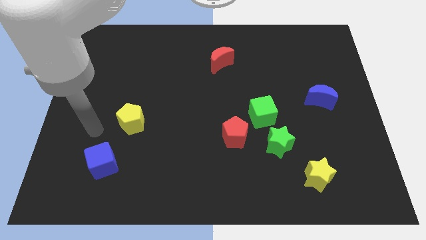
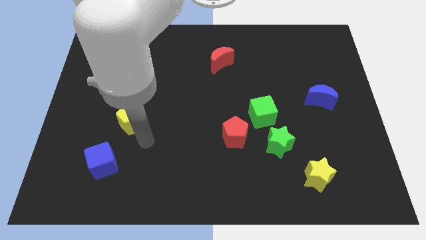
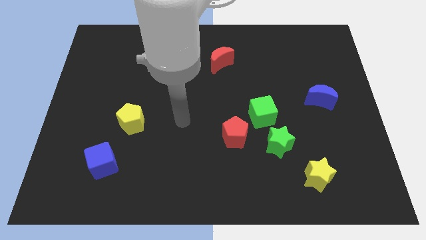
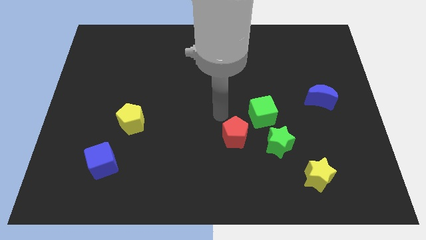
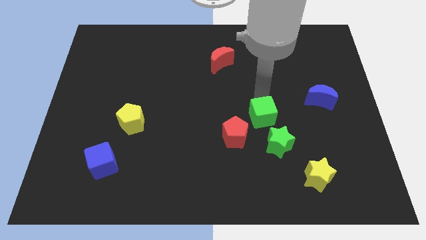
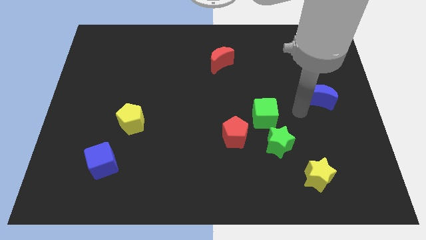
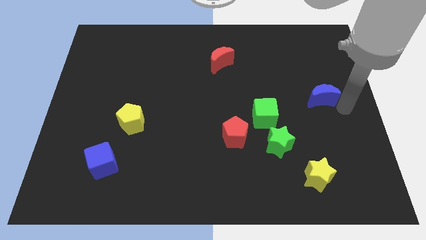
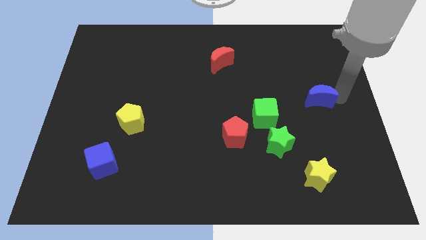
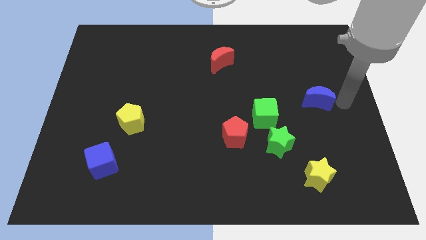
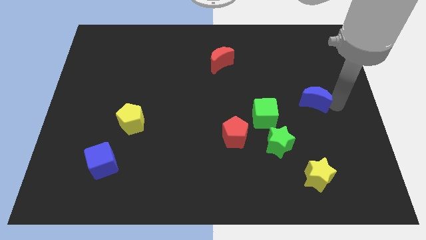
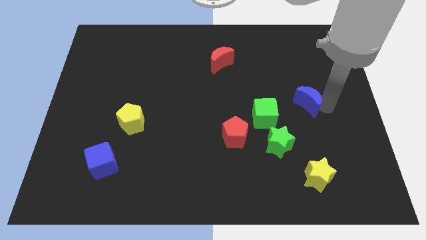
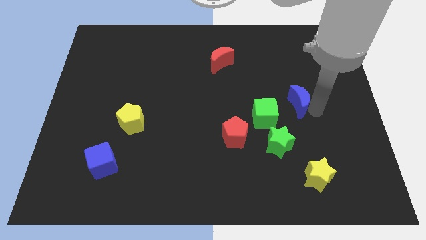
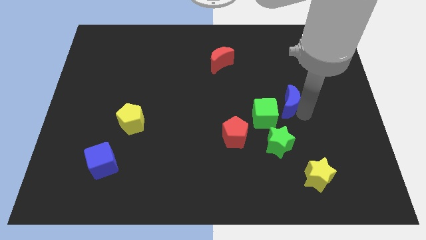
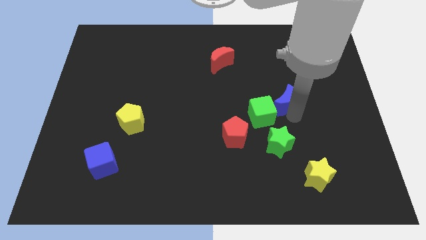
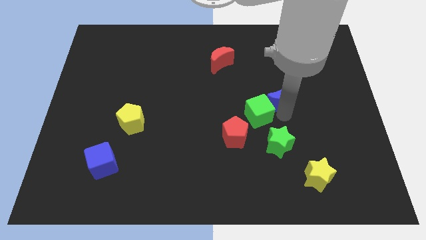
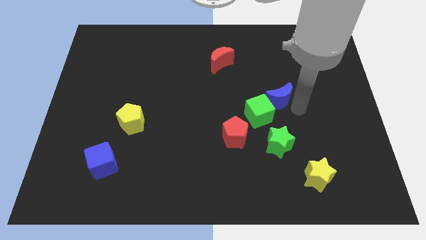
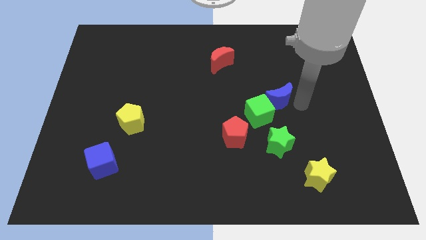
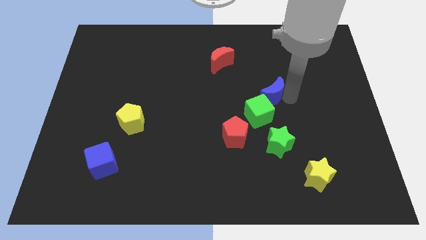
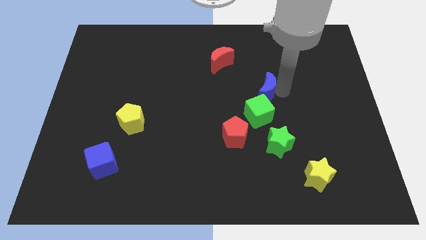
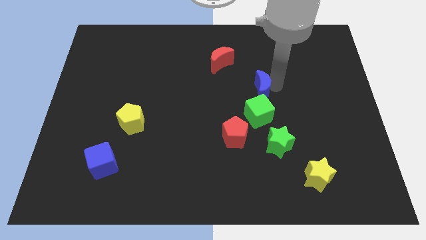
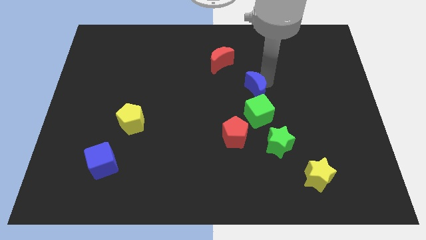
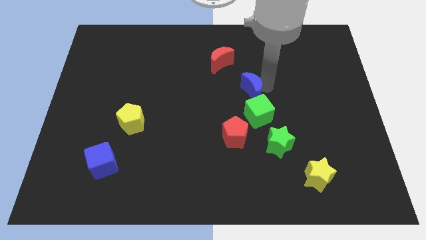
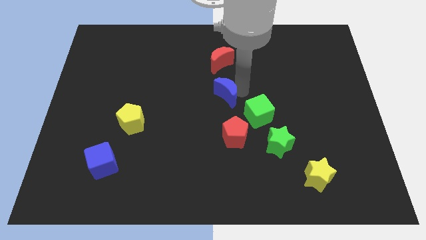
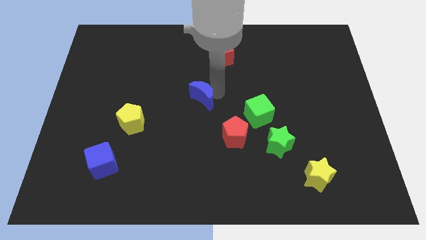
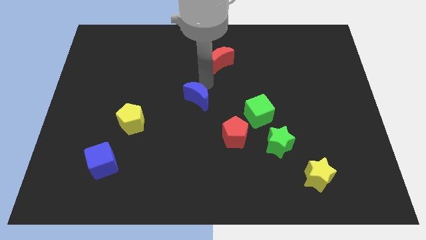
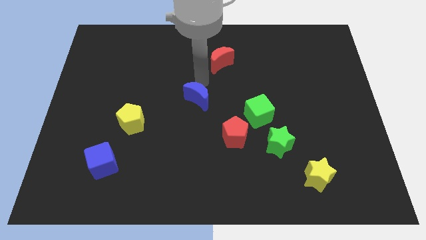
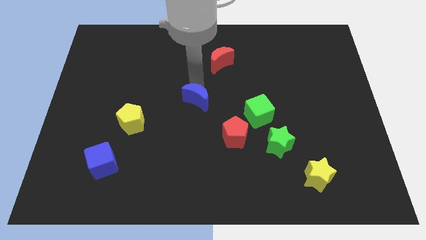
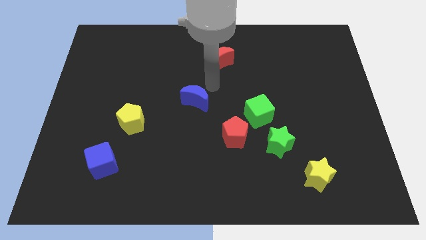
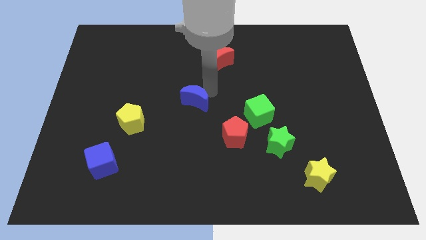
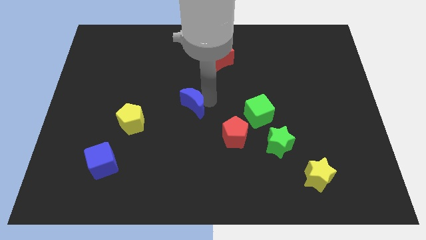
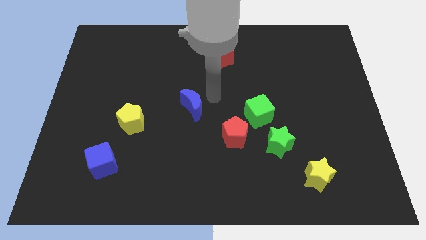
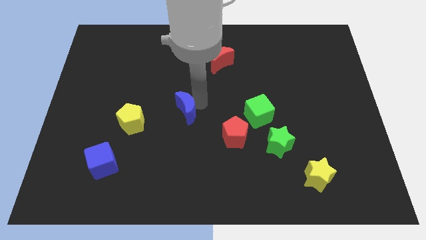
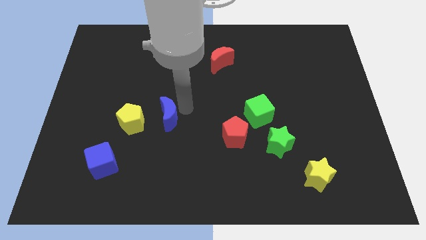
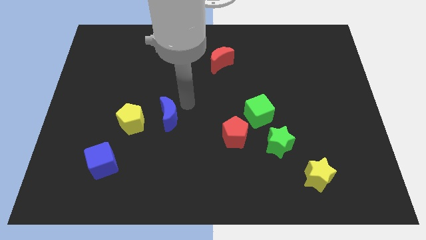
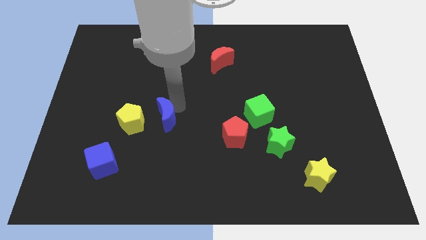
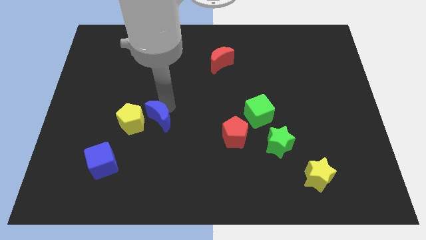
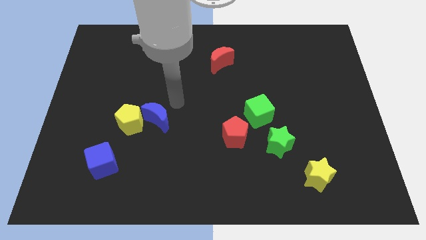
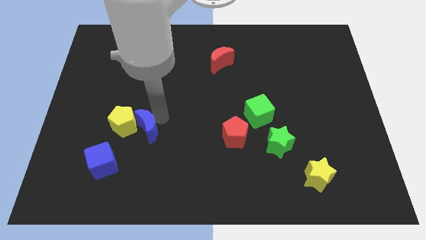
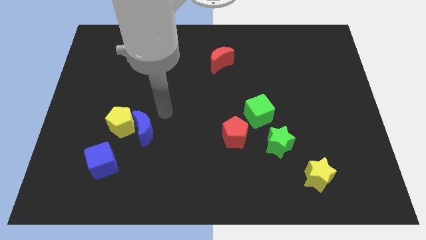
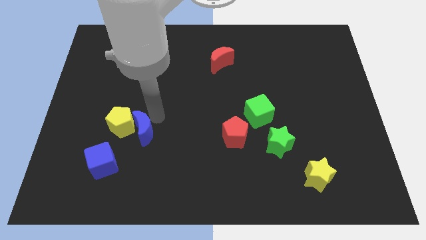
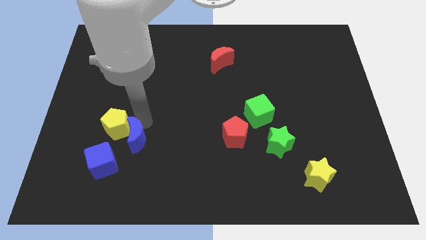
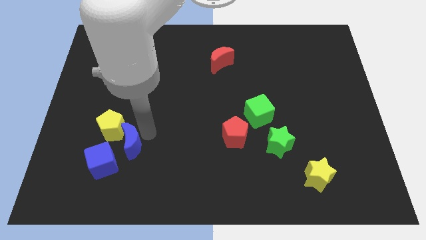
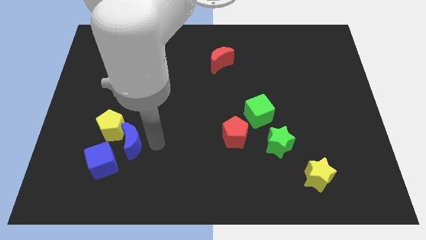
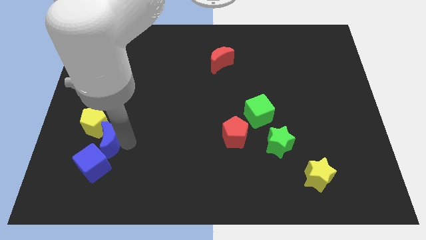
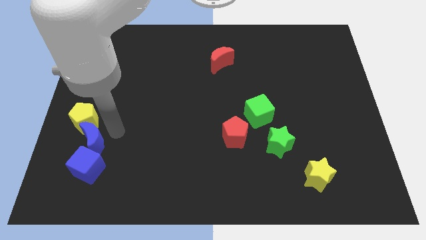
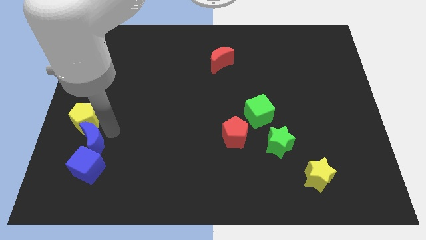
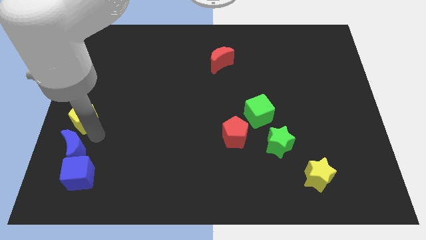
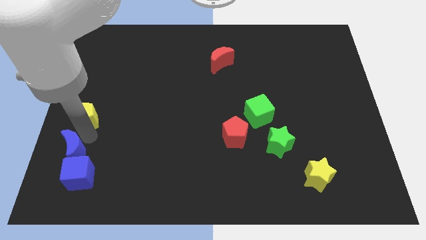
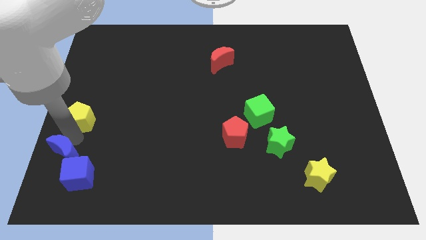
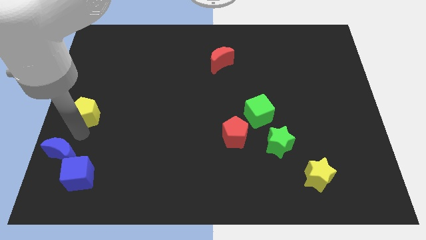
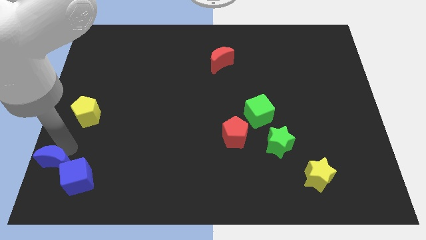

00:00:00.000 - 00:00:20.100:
put the blue moon to the lower left corner

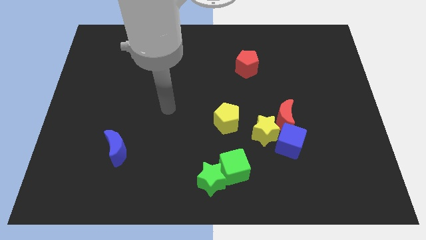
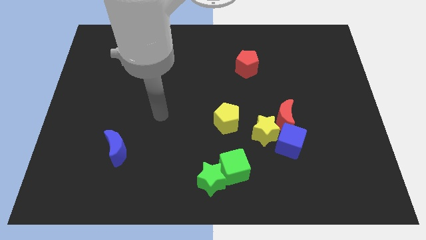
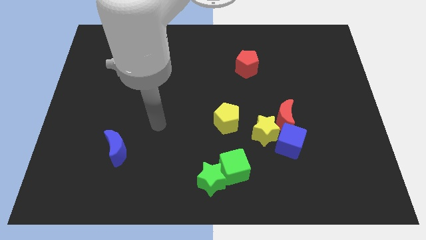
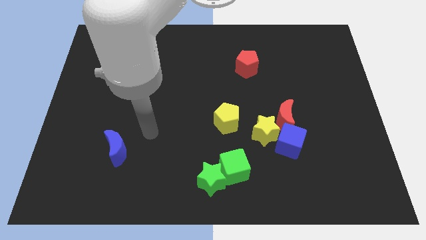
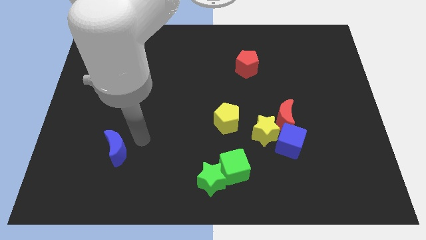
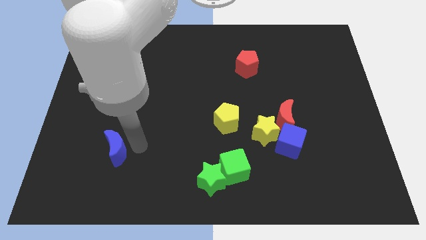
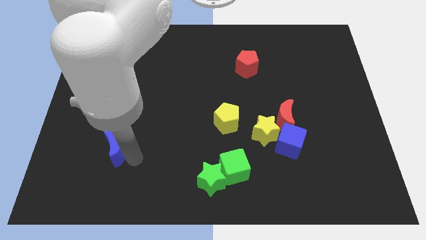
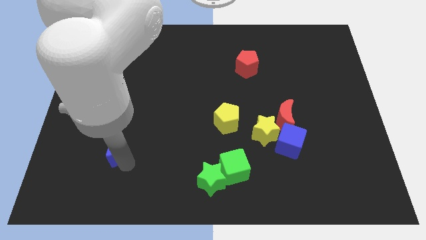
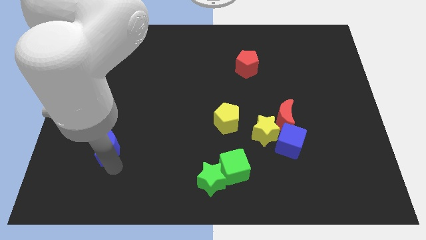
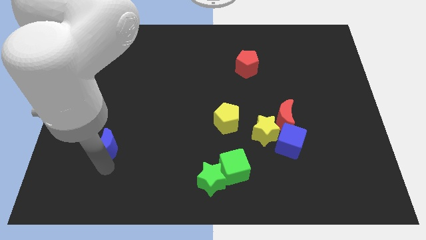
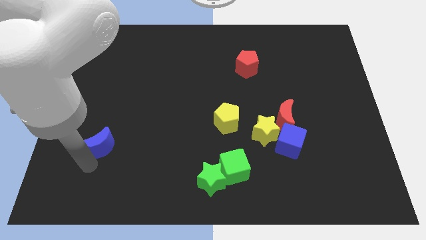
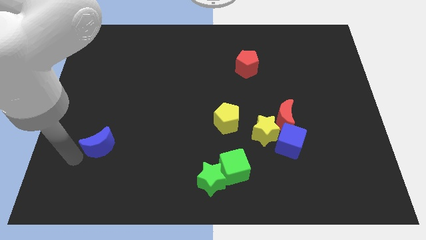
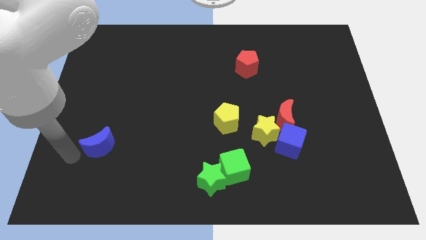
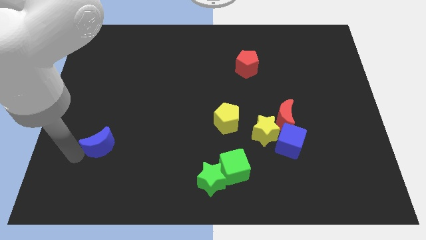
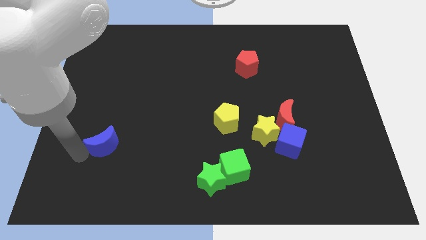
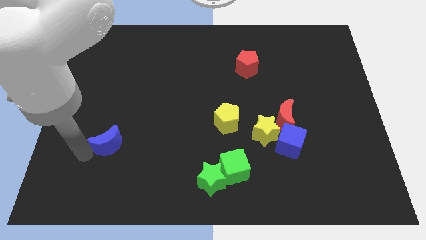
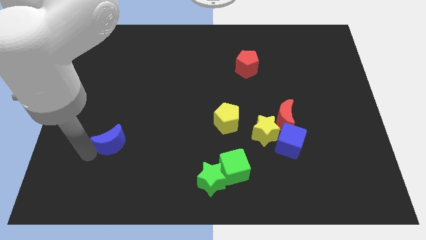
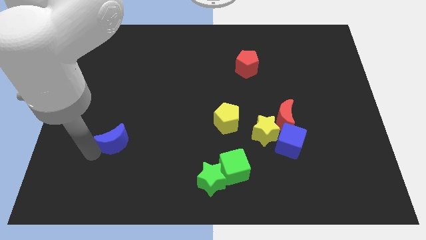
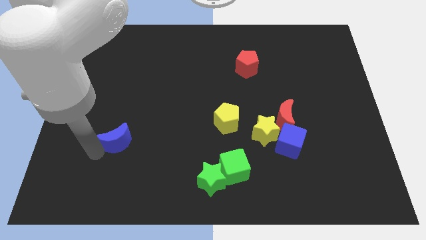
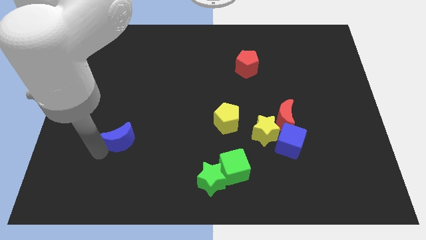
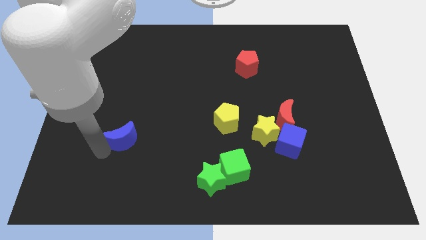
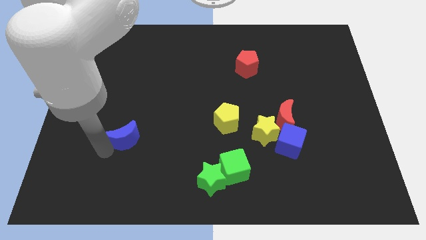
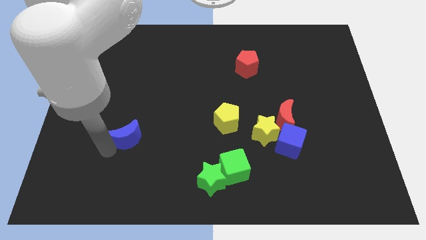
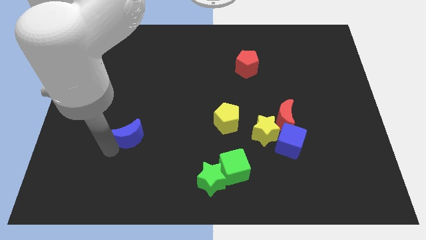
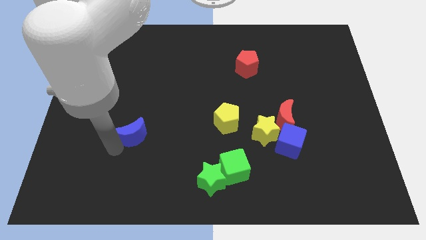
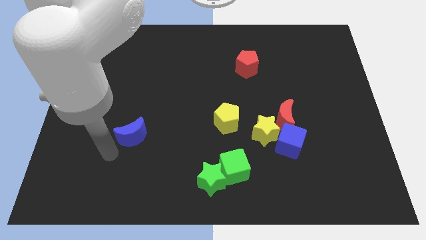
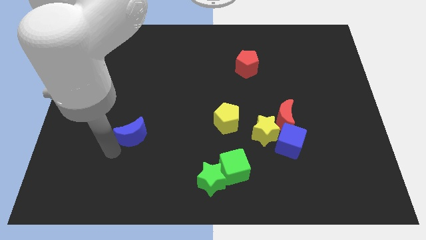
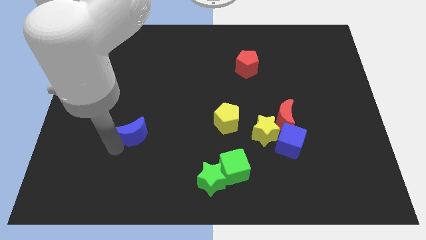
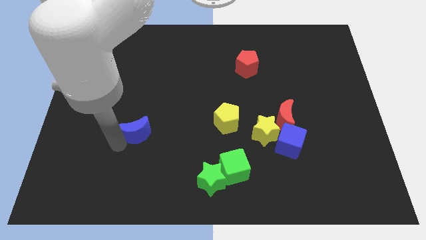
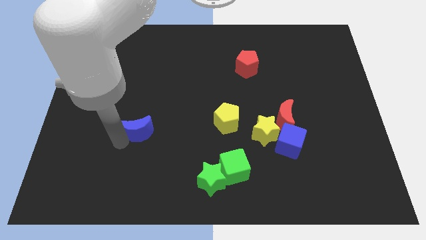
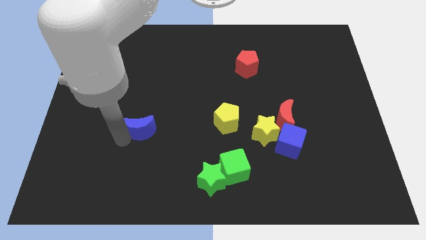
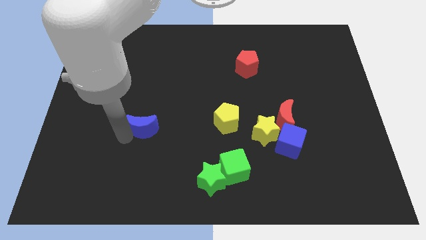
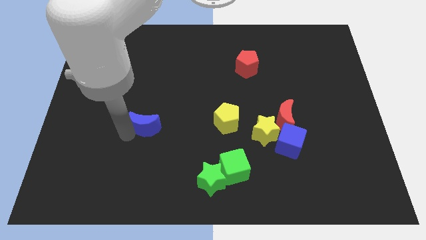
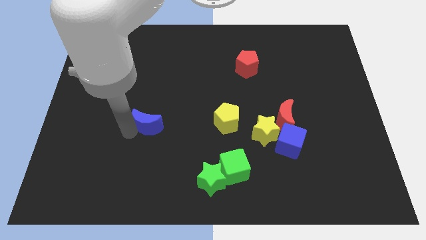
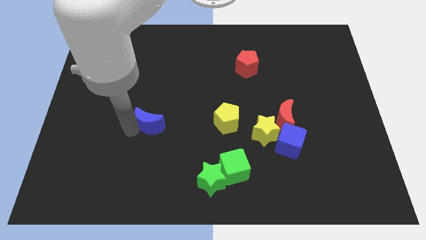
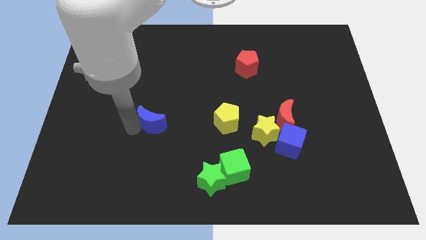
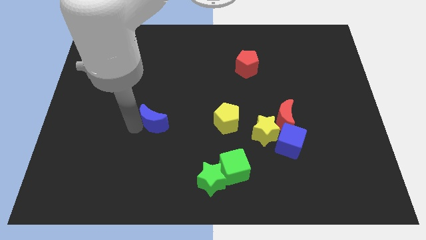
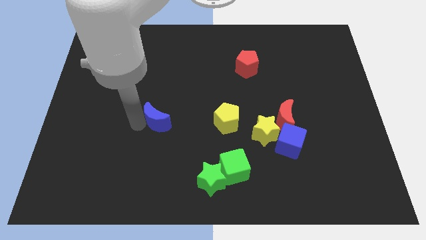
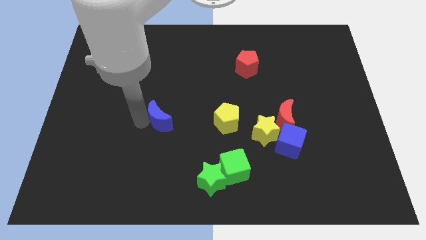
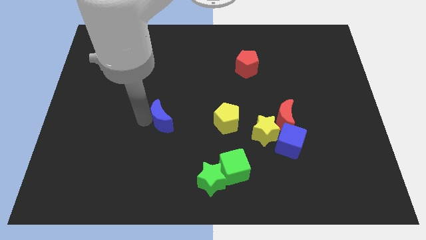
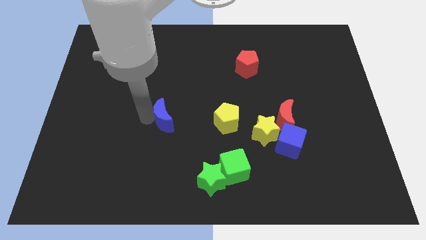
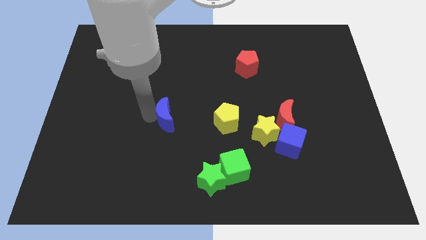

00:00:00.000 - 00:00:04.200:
slide the blue moon to the middle of the board
